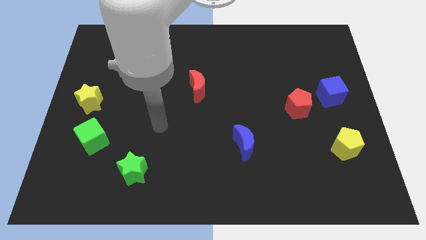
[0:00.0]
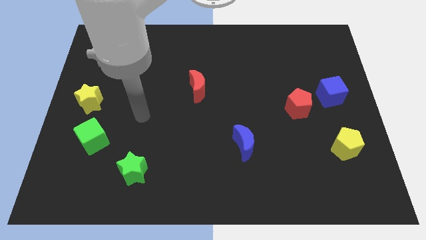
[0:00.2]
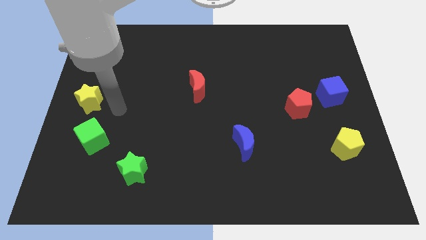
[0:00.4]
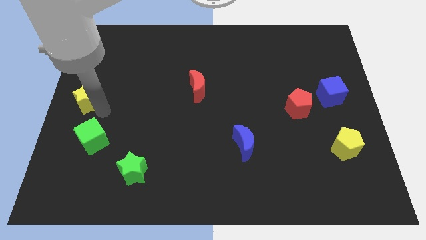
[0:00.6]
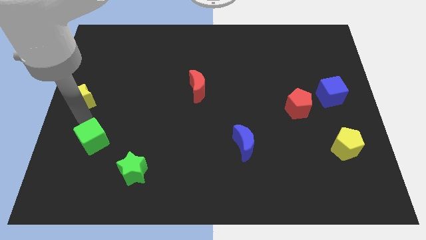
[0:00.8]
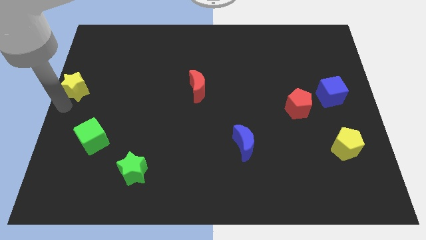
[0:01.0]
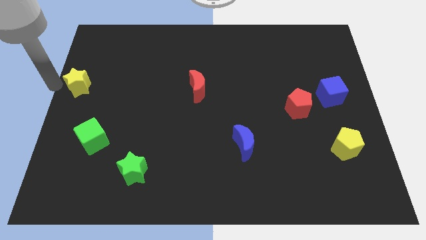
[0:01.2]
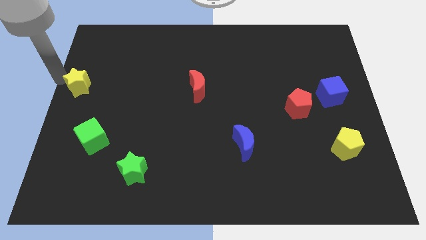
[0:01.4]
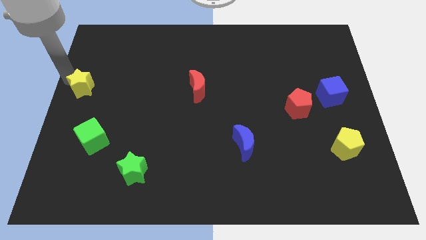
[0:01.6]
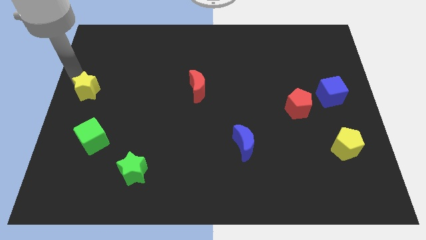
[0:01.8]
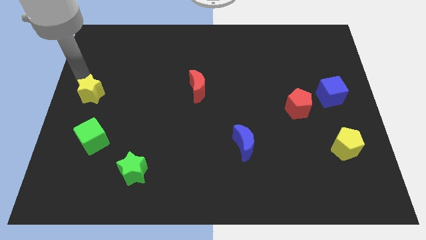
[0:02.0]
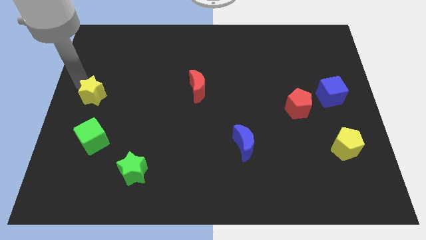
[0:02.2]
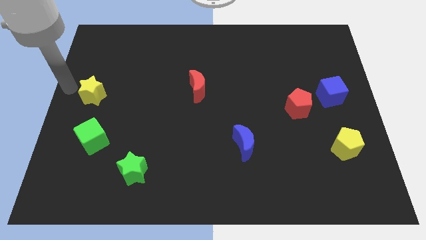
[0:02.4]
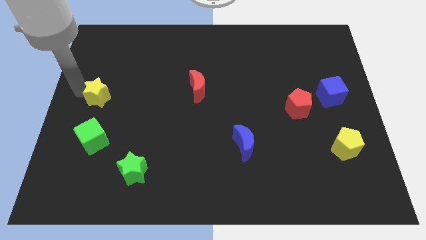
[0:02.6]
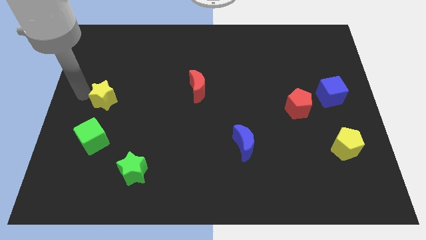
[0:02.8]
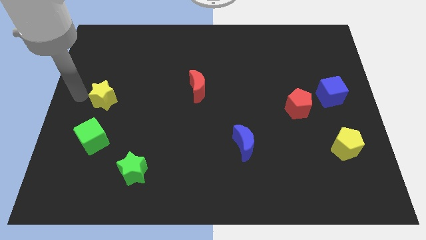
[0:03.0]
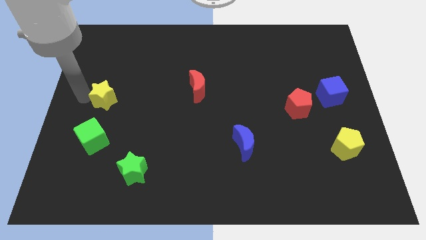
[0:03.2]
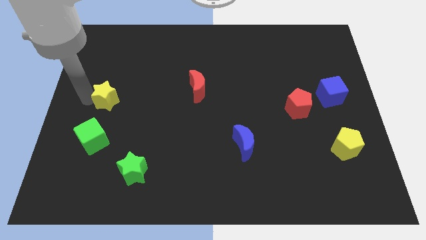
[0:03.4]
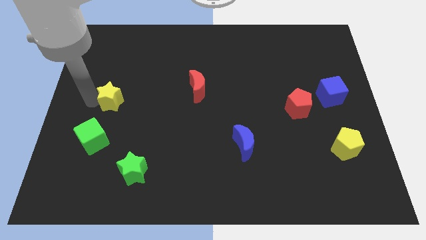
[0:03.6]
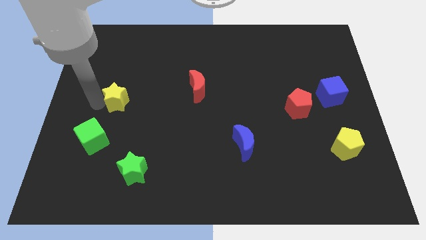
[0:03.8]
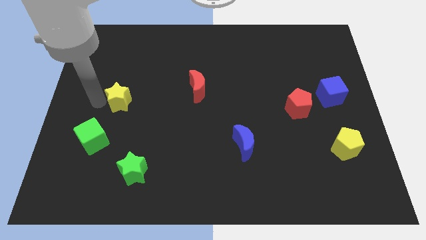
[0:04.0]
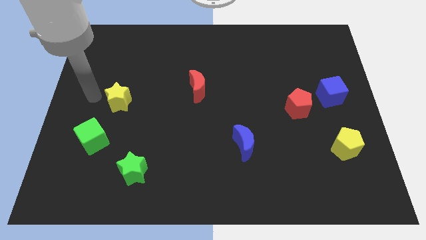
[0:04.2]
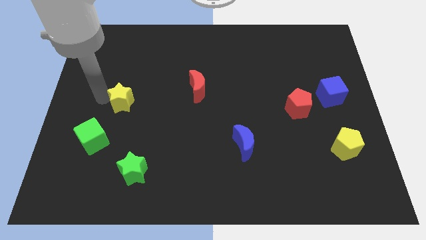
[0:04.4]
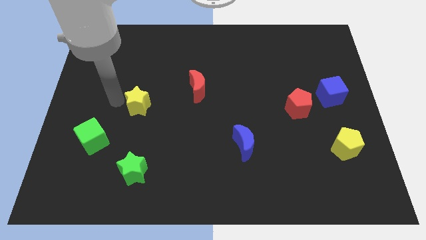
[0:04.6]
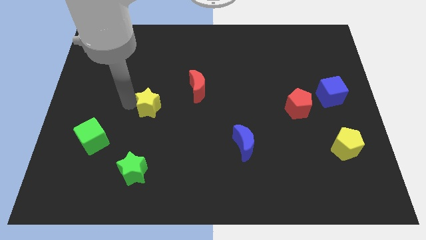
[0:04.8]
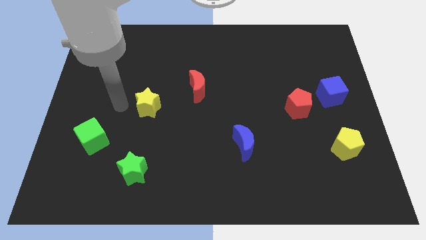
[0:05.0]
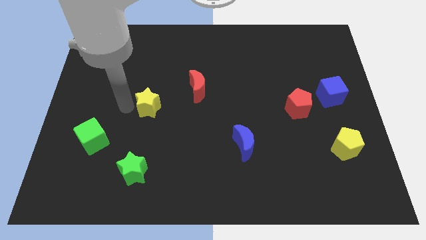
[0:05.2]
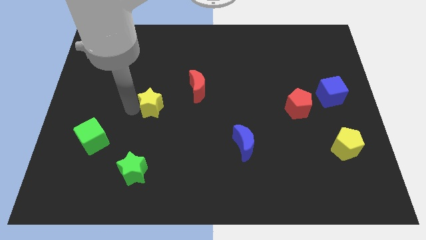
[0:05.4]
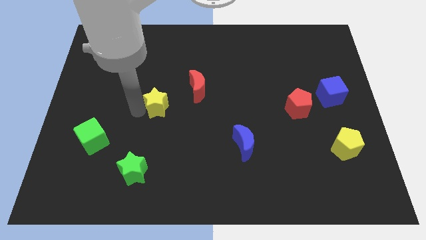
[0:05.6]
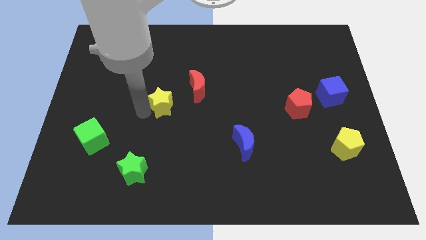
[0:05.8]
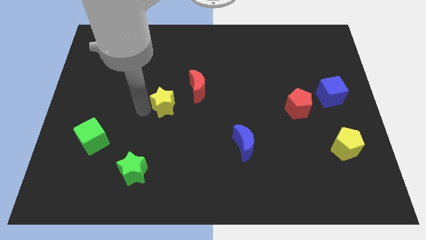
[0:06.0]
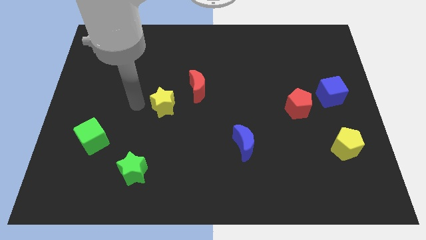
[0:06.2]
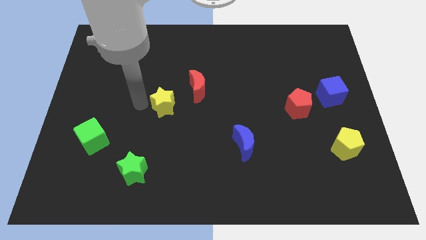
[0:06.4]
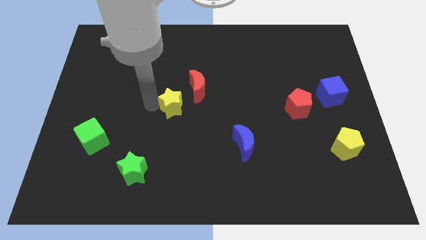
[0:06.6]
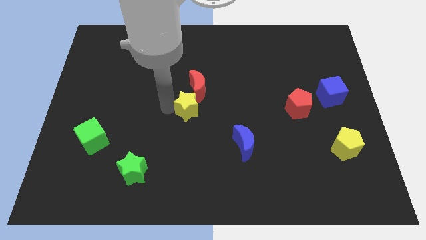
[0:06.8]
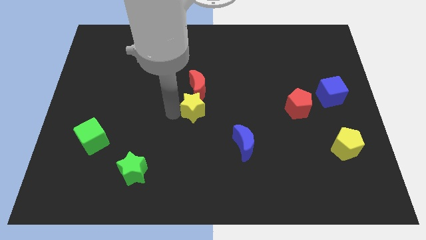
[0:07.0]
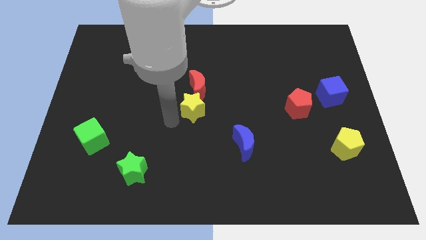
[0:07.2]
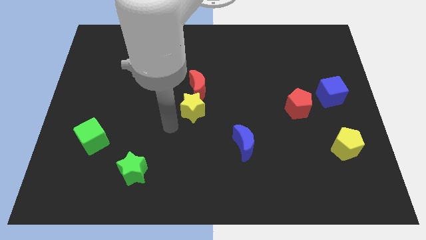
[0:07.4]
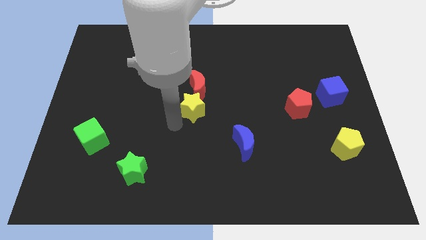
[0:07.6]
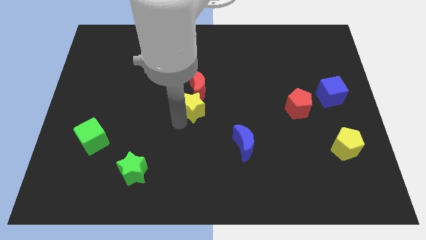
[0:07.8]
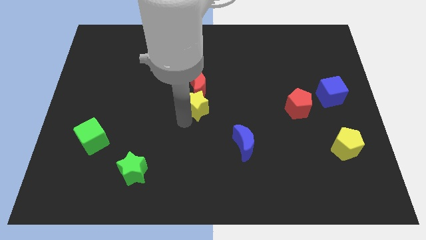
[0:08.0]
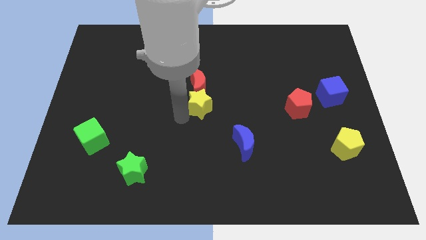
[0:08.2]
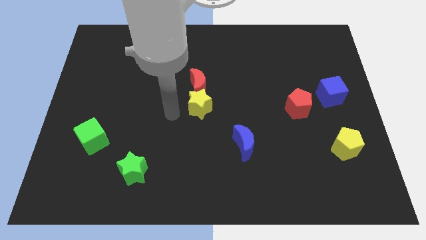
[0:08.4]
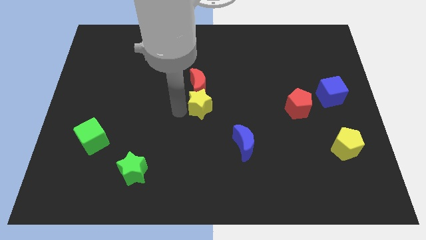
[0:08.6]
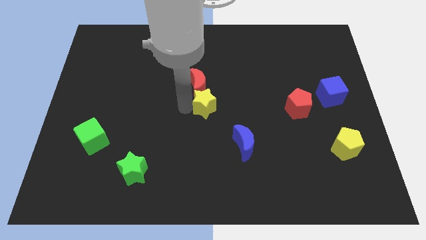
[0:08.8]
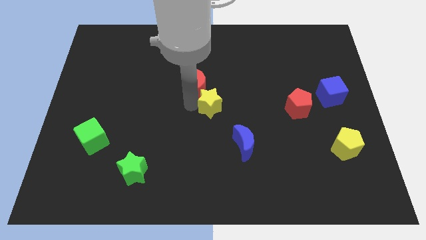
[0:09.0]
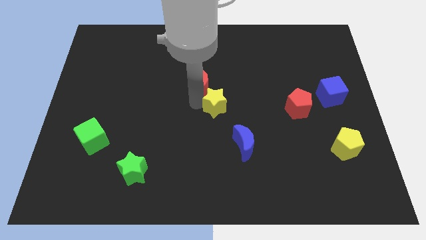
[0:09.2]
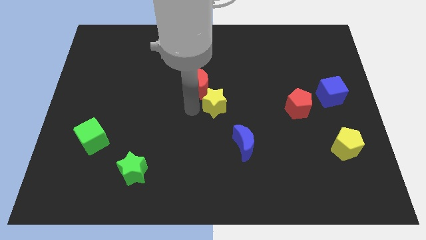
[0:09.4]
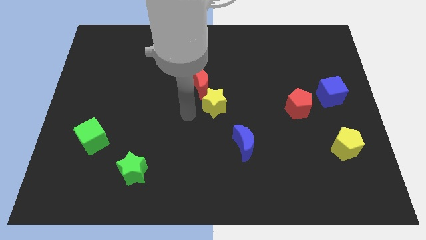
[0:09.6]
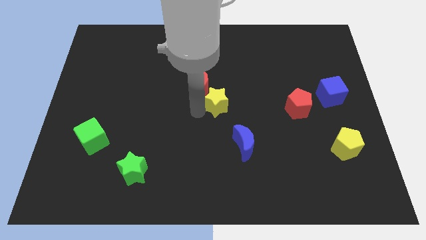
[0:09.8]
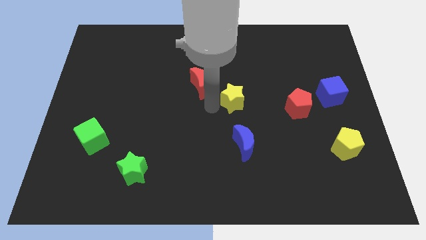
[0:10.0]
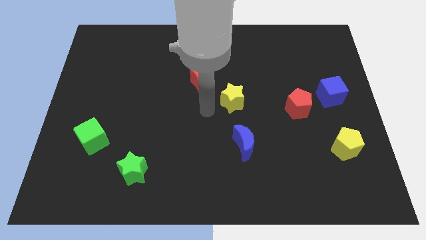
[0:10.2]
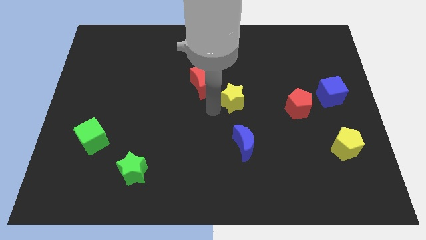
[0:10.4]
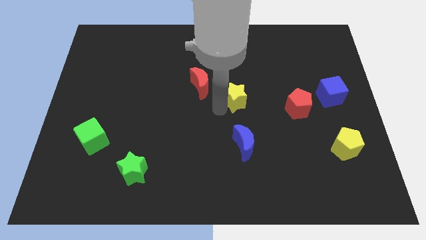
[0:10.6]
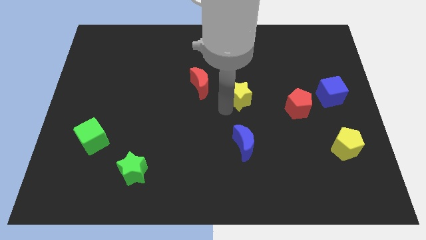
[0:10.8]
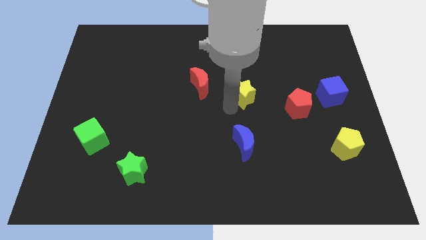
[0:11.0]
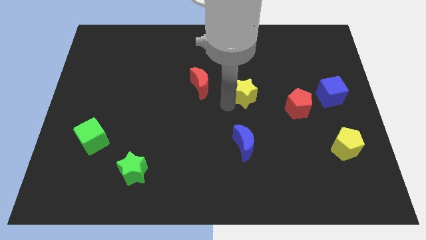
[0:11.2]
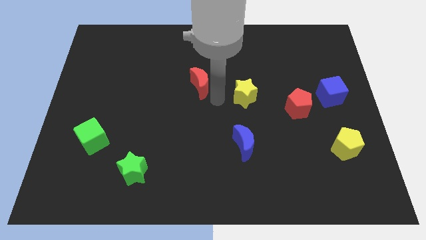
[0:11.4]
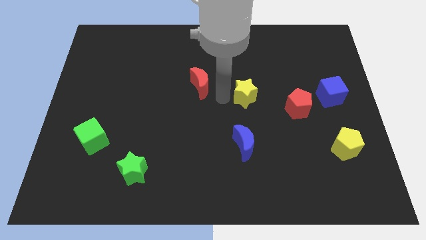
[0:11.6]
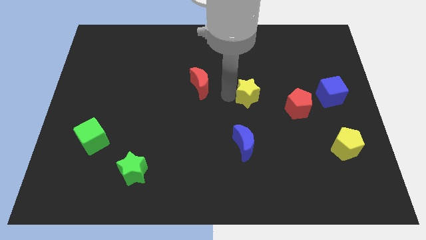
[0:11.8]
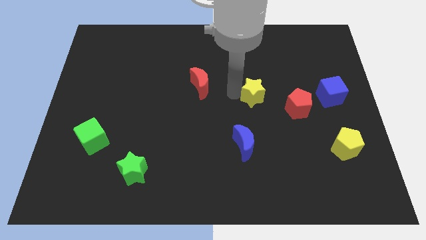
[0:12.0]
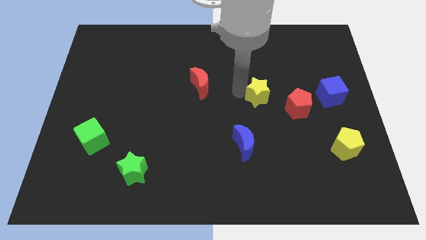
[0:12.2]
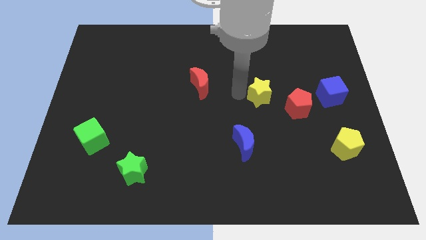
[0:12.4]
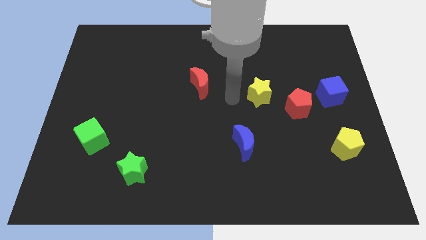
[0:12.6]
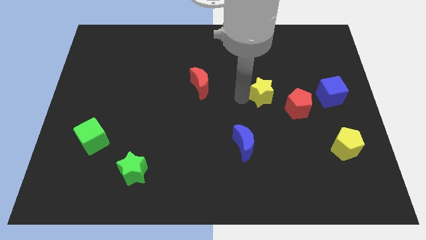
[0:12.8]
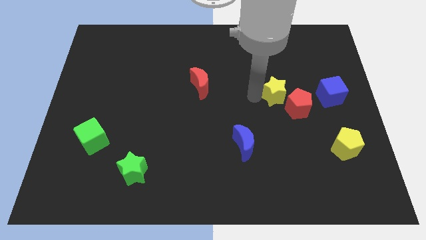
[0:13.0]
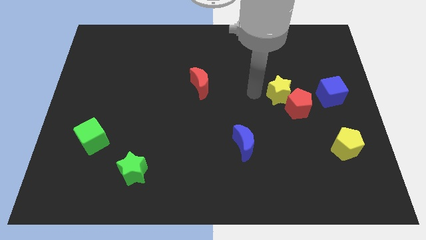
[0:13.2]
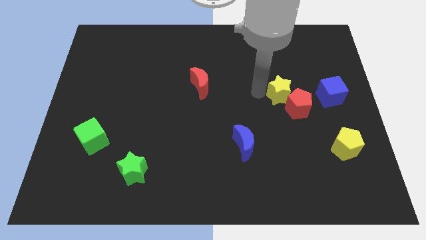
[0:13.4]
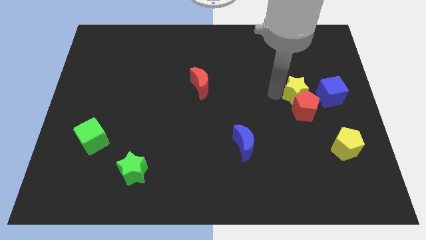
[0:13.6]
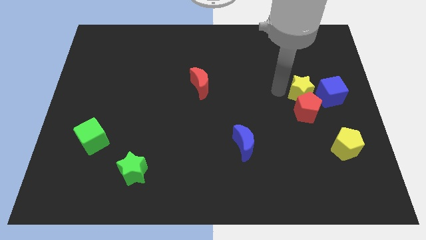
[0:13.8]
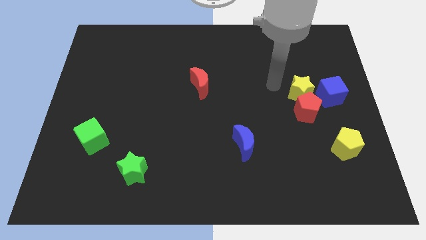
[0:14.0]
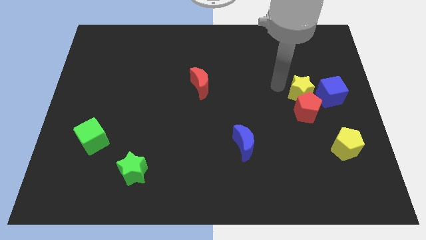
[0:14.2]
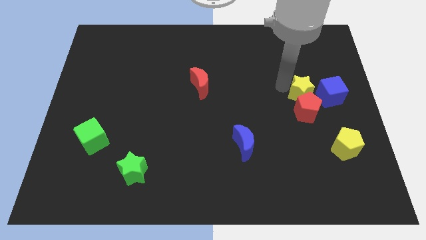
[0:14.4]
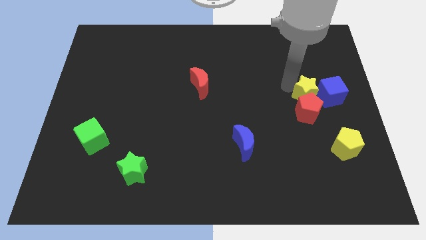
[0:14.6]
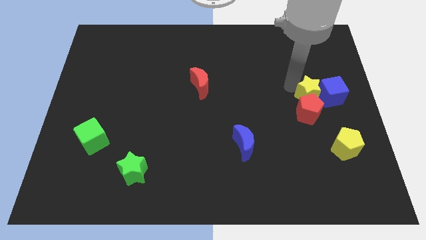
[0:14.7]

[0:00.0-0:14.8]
slide the yellow star to the blue cube

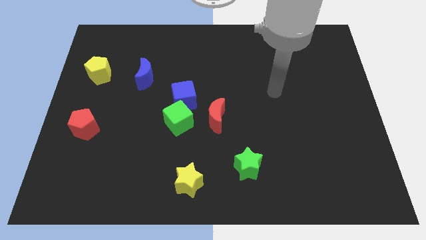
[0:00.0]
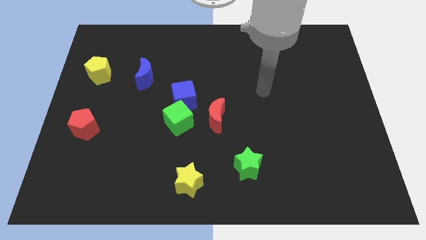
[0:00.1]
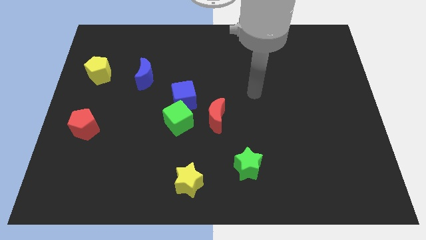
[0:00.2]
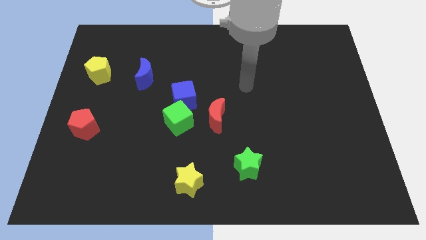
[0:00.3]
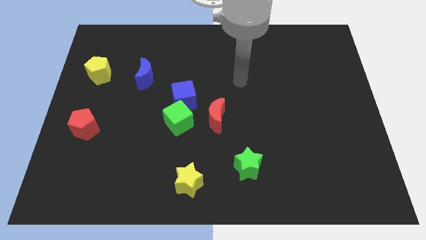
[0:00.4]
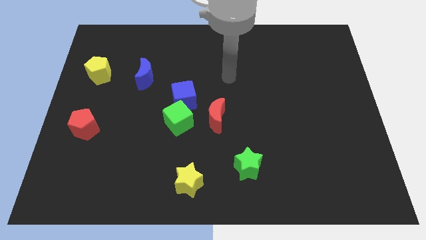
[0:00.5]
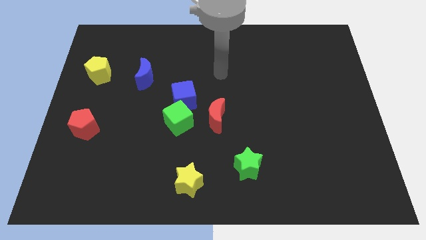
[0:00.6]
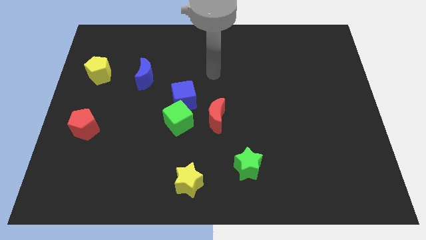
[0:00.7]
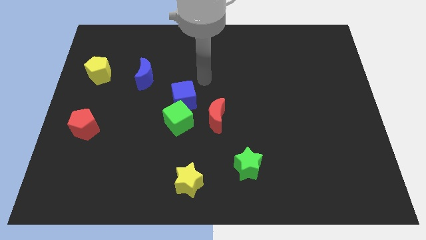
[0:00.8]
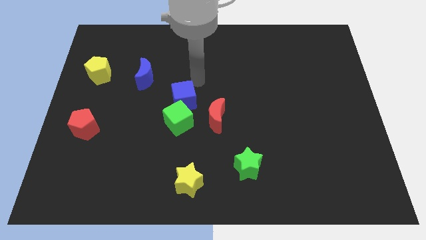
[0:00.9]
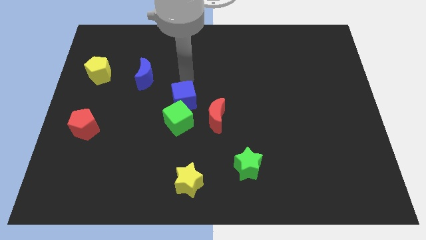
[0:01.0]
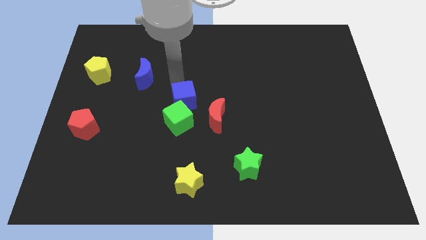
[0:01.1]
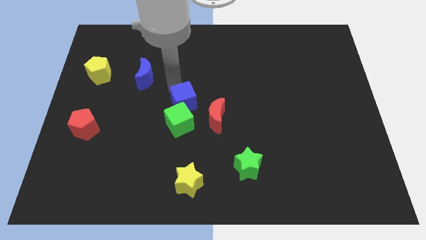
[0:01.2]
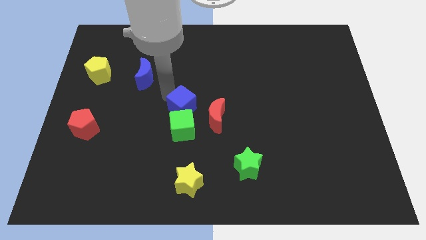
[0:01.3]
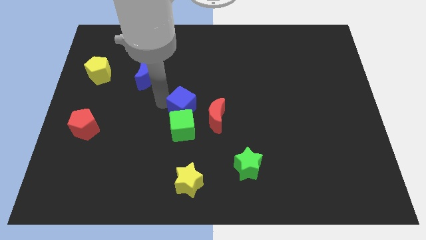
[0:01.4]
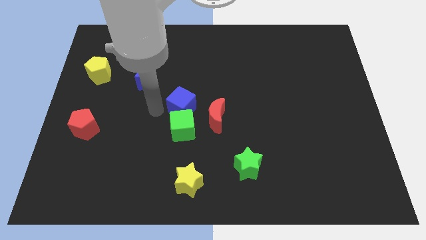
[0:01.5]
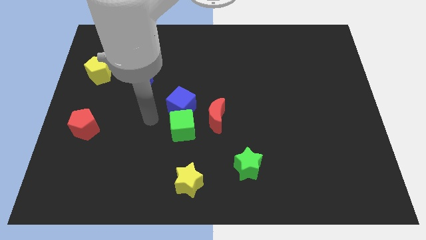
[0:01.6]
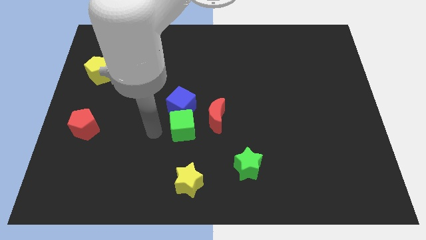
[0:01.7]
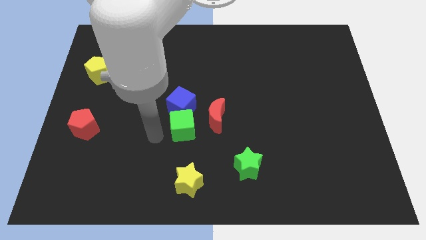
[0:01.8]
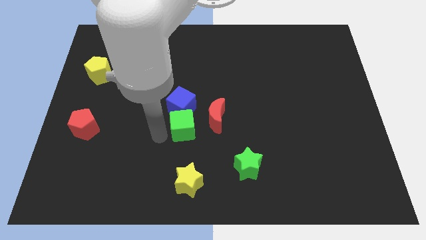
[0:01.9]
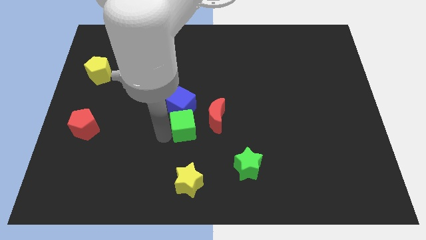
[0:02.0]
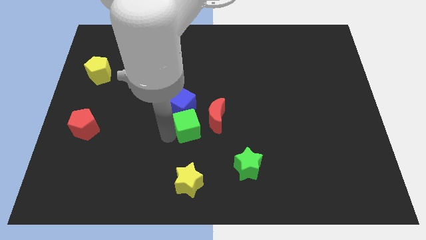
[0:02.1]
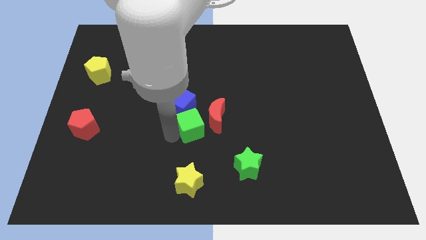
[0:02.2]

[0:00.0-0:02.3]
push the green cube close to the red moon
